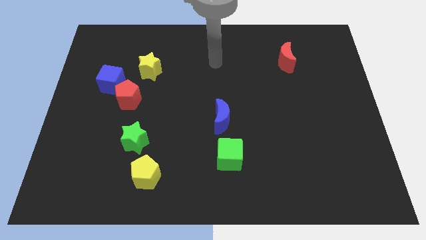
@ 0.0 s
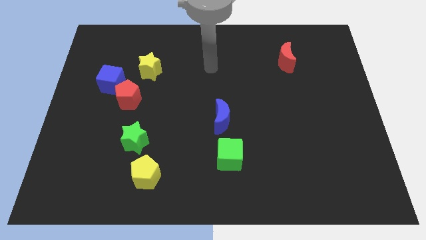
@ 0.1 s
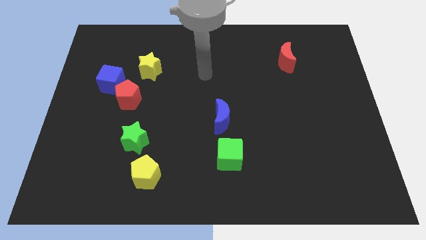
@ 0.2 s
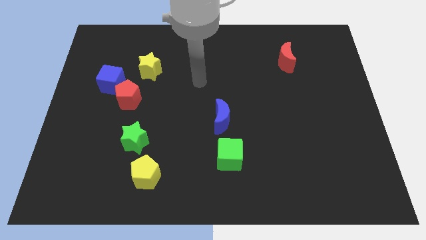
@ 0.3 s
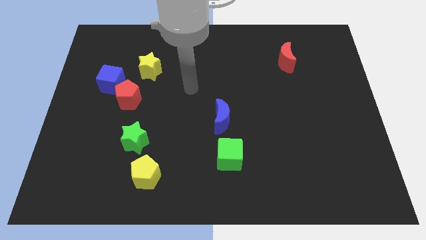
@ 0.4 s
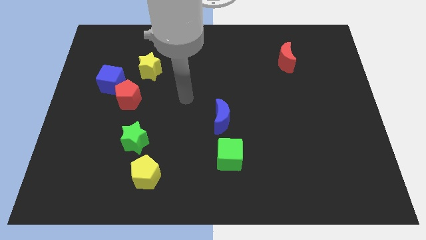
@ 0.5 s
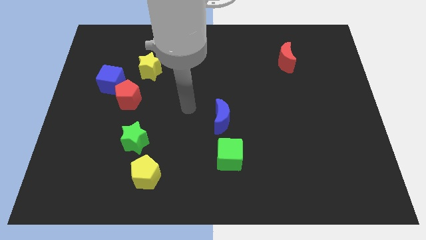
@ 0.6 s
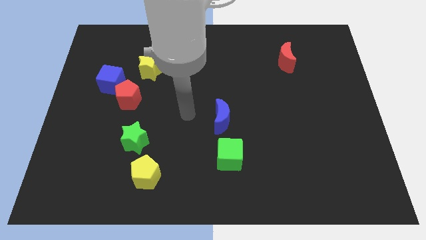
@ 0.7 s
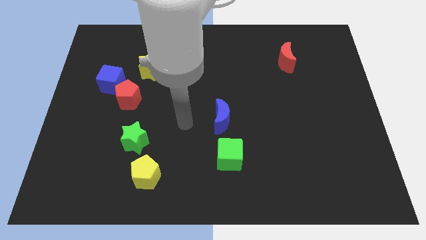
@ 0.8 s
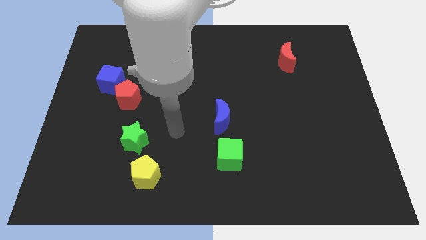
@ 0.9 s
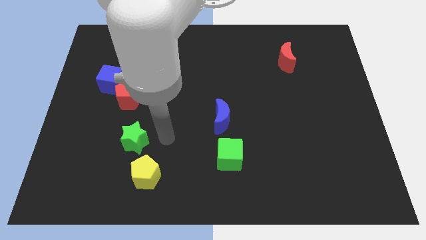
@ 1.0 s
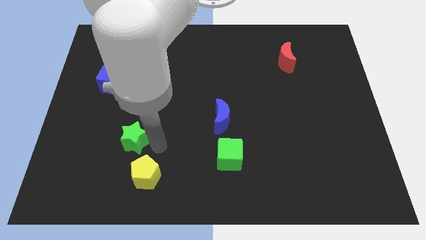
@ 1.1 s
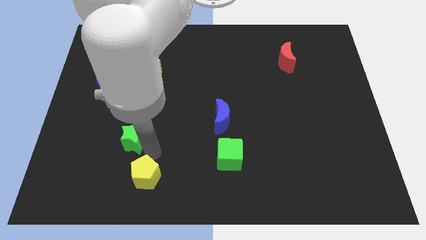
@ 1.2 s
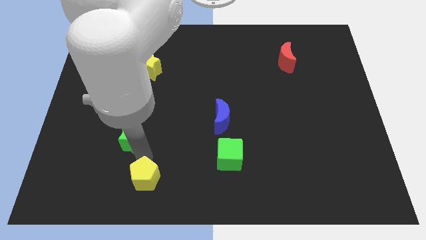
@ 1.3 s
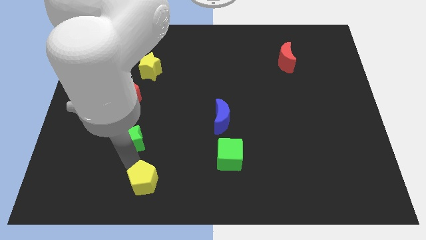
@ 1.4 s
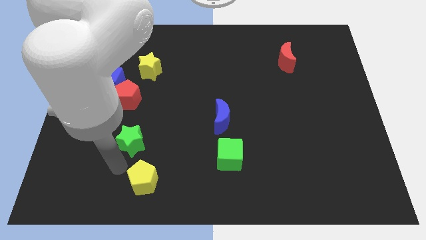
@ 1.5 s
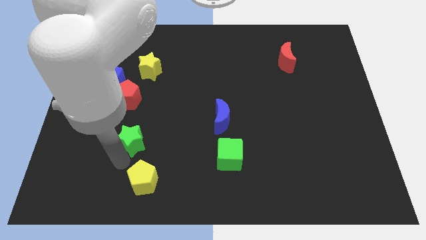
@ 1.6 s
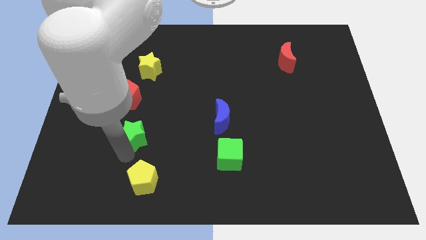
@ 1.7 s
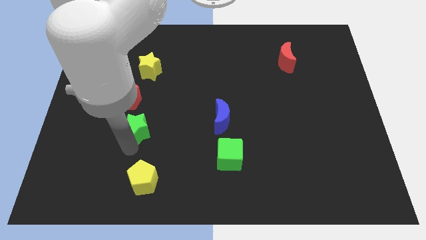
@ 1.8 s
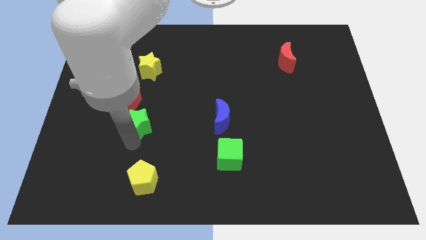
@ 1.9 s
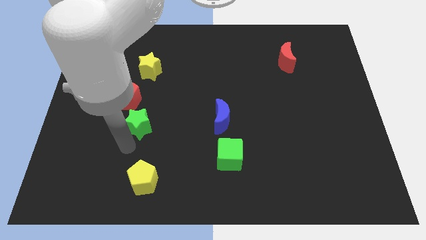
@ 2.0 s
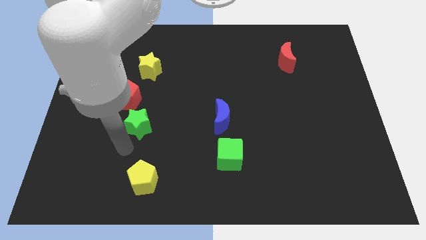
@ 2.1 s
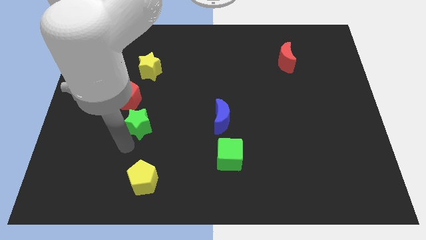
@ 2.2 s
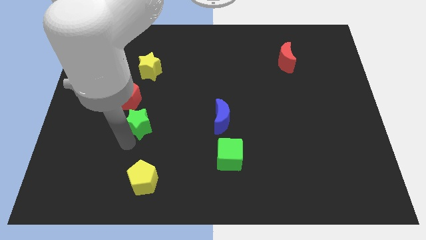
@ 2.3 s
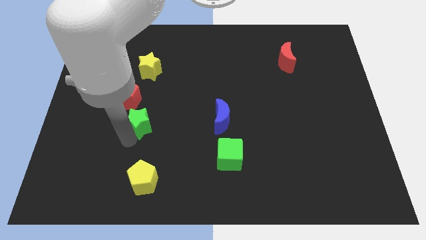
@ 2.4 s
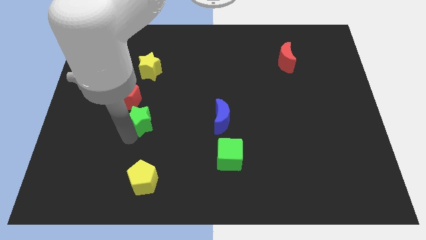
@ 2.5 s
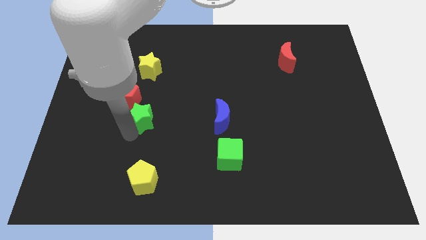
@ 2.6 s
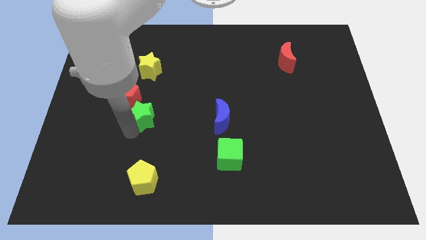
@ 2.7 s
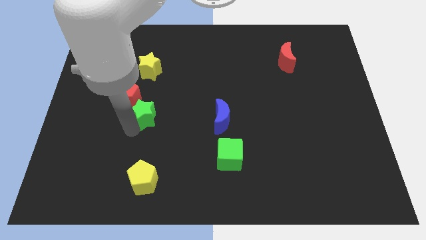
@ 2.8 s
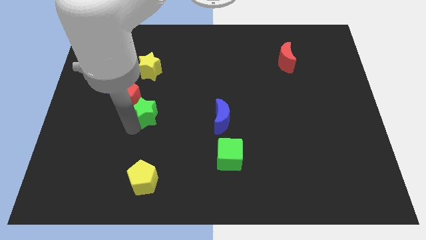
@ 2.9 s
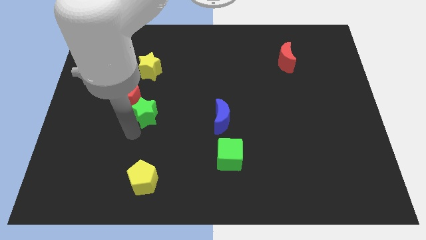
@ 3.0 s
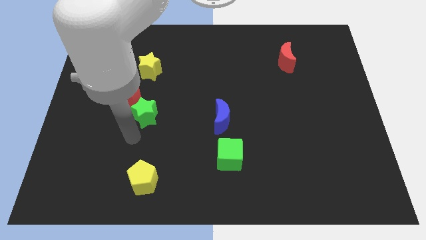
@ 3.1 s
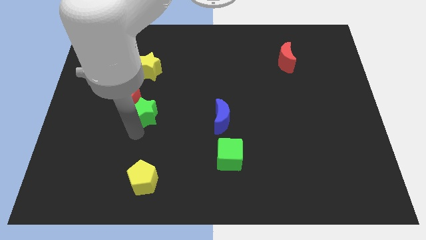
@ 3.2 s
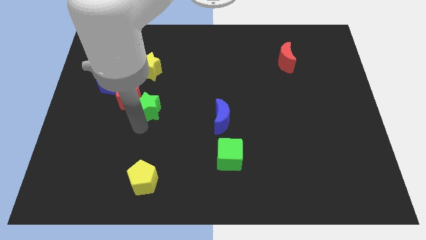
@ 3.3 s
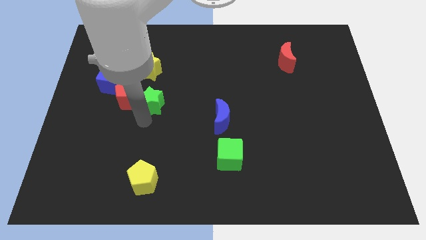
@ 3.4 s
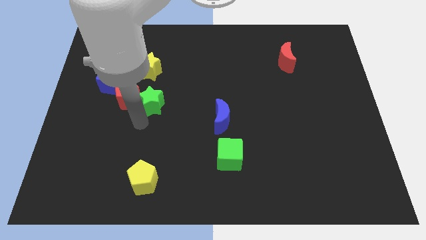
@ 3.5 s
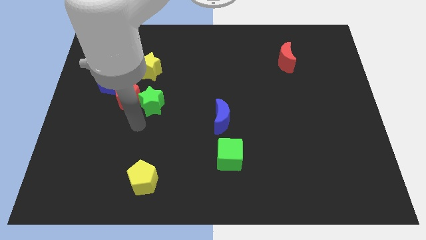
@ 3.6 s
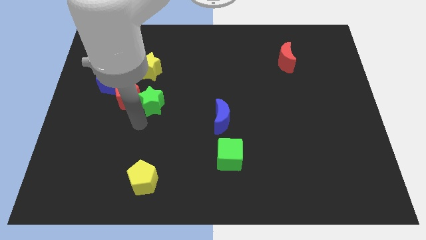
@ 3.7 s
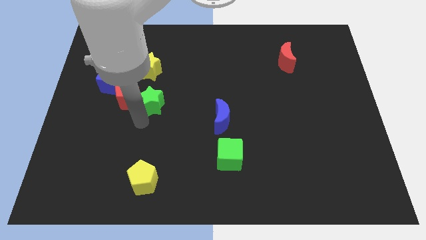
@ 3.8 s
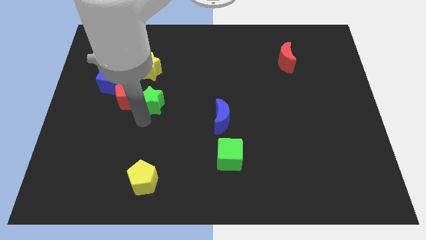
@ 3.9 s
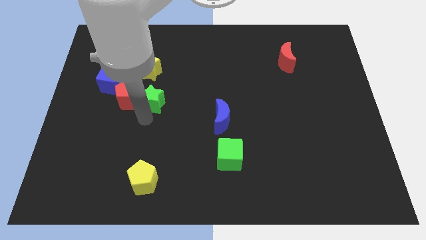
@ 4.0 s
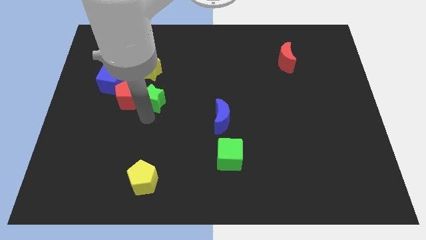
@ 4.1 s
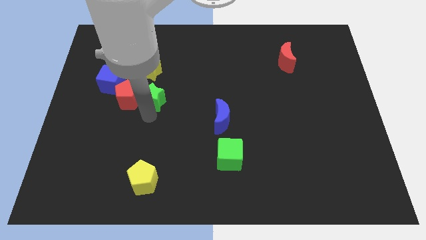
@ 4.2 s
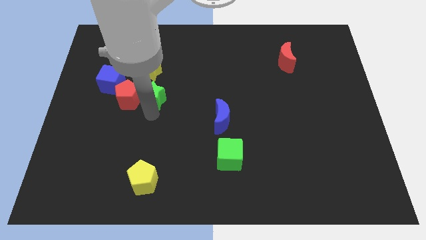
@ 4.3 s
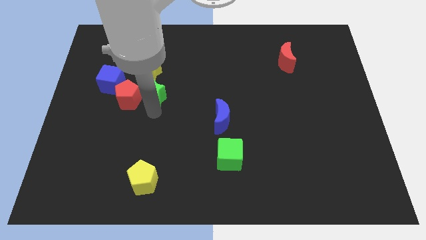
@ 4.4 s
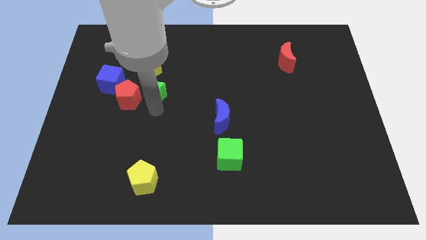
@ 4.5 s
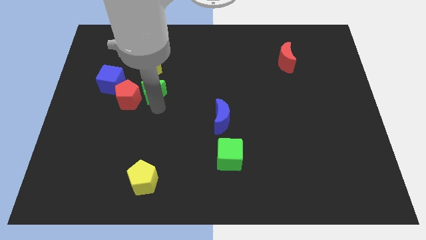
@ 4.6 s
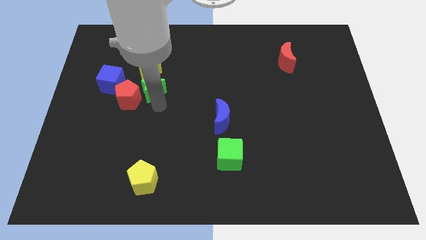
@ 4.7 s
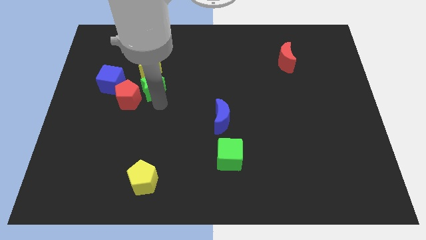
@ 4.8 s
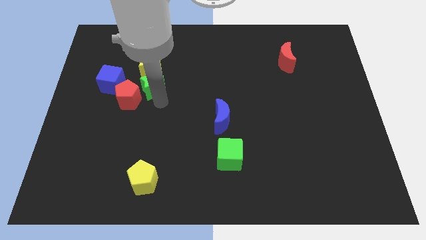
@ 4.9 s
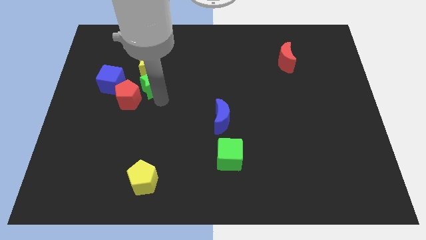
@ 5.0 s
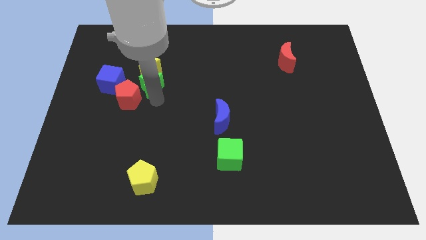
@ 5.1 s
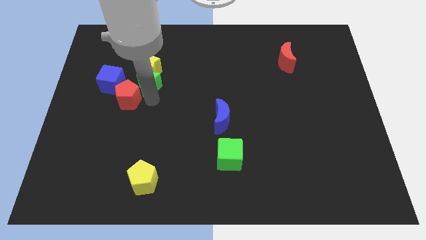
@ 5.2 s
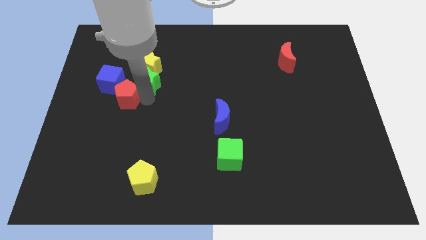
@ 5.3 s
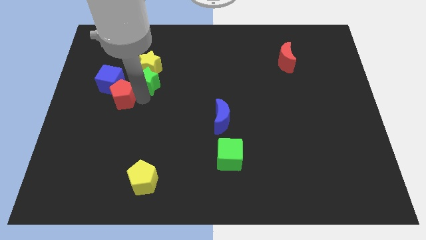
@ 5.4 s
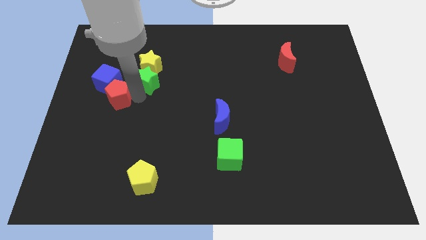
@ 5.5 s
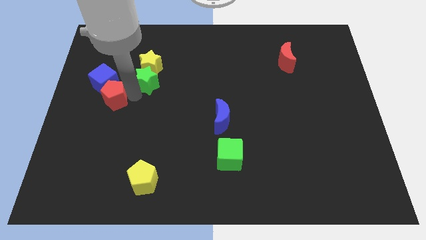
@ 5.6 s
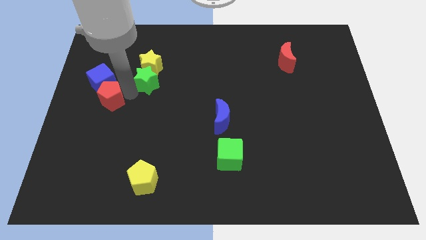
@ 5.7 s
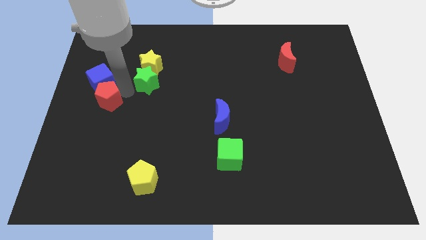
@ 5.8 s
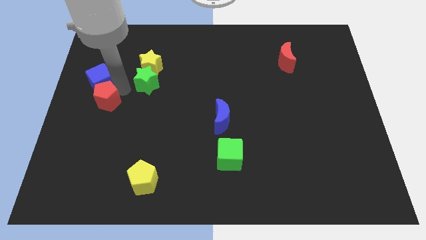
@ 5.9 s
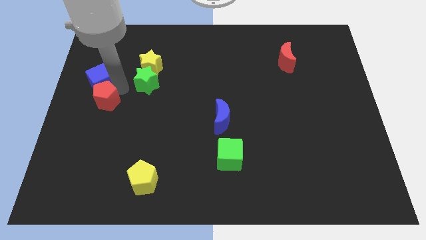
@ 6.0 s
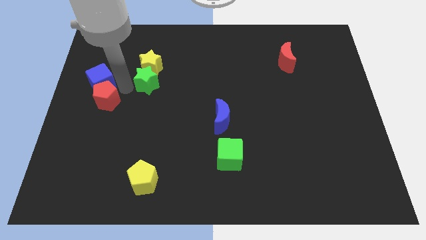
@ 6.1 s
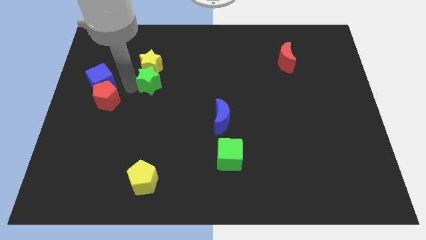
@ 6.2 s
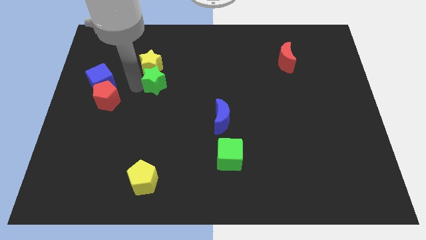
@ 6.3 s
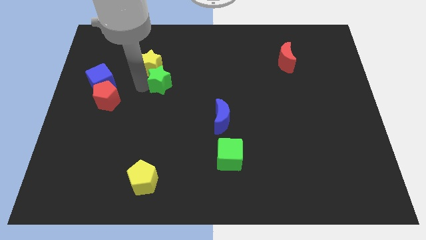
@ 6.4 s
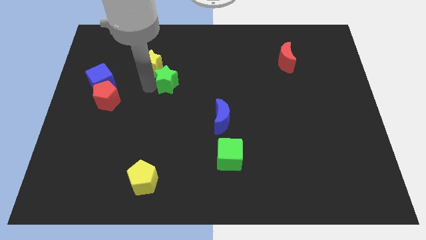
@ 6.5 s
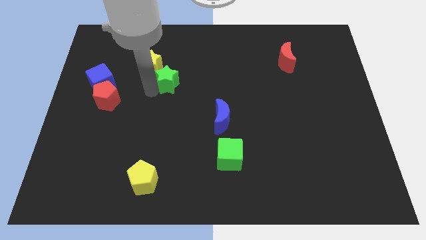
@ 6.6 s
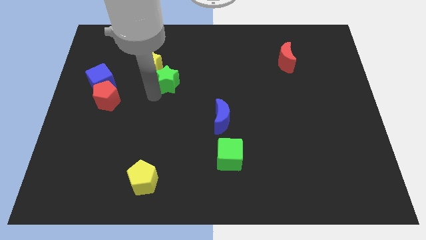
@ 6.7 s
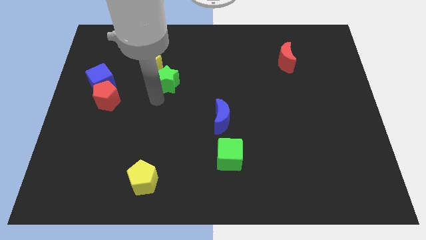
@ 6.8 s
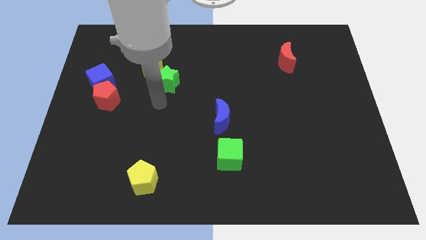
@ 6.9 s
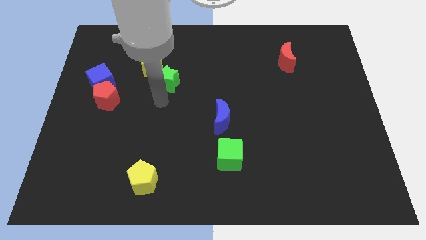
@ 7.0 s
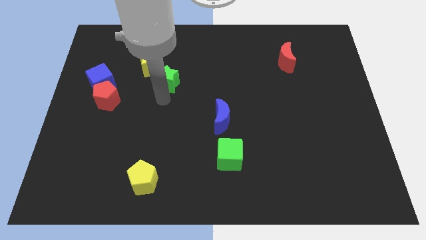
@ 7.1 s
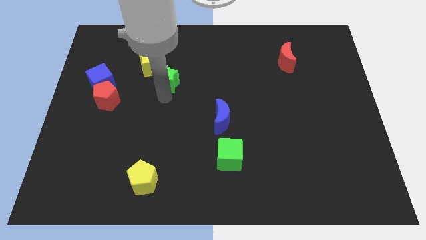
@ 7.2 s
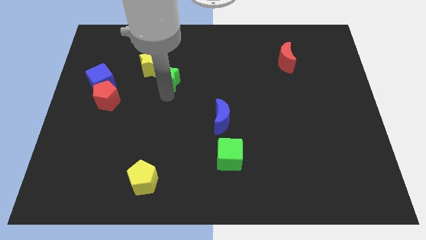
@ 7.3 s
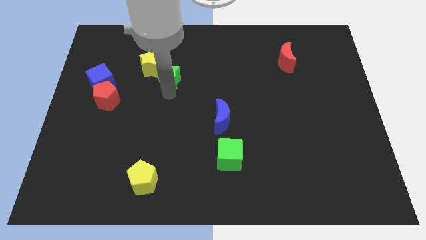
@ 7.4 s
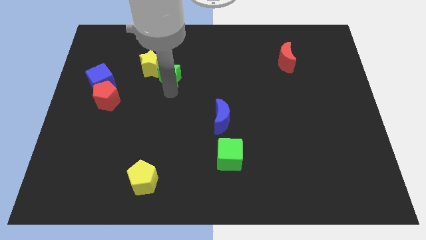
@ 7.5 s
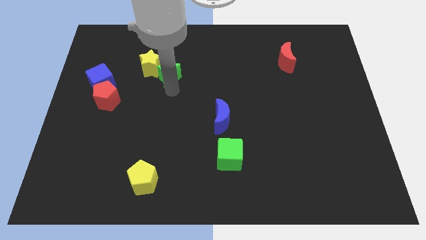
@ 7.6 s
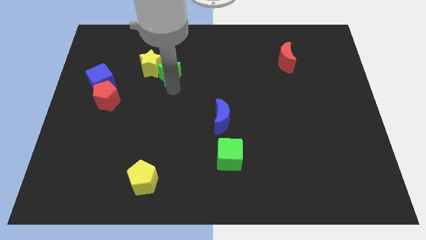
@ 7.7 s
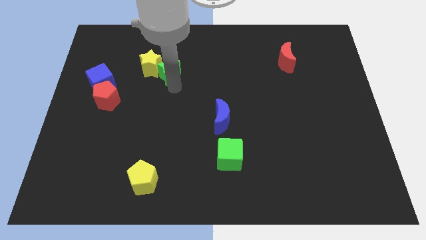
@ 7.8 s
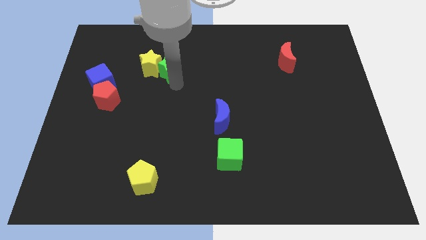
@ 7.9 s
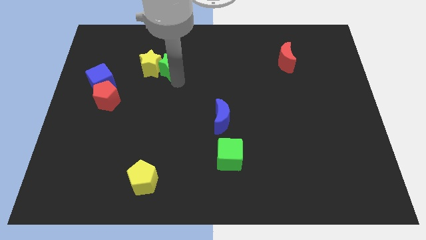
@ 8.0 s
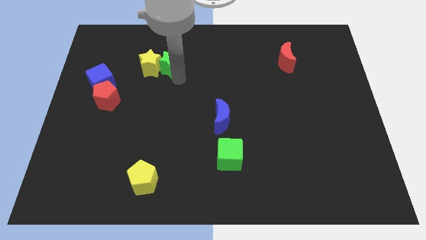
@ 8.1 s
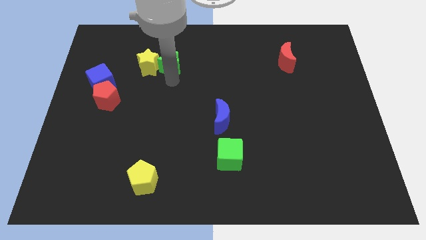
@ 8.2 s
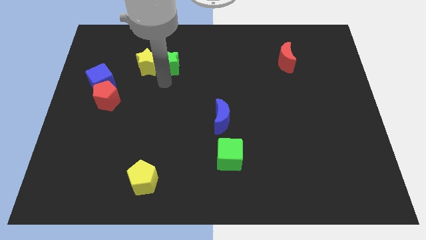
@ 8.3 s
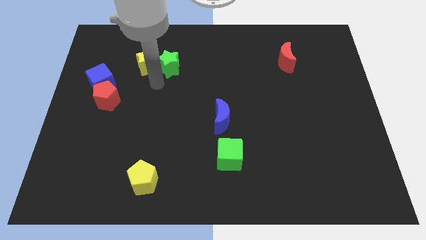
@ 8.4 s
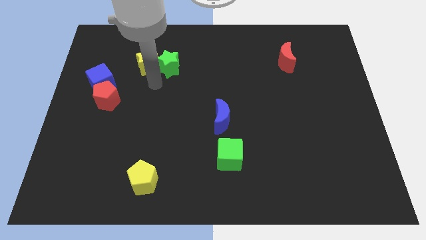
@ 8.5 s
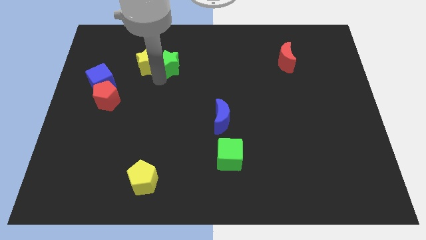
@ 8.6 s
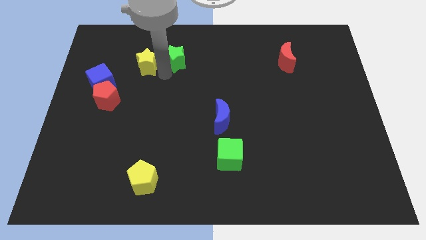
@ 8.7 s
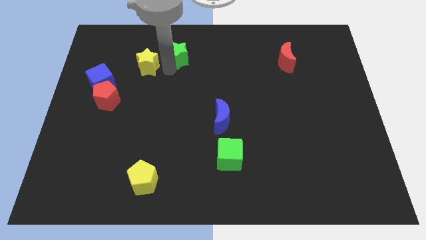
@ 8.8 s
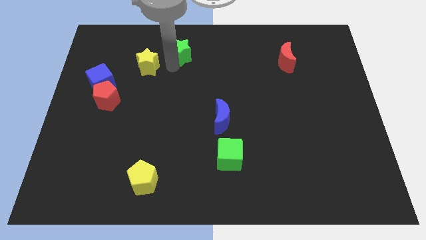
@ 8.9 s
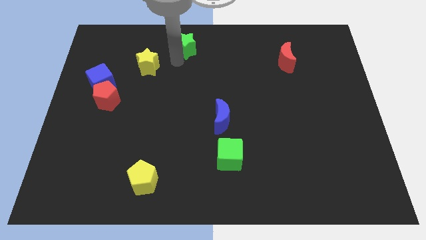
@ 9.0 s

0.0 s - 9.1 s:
push the green star to the top
